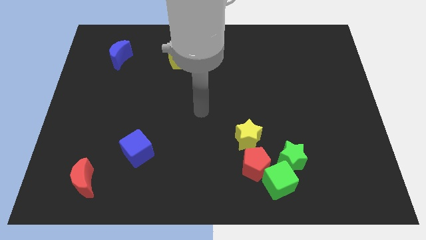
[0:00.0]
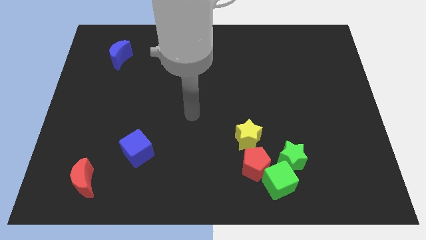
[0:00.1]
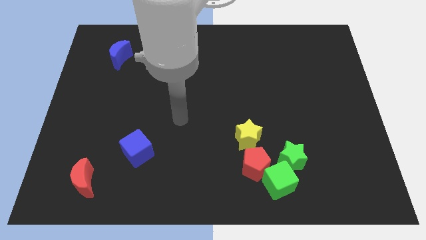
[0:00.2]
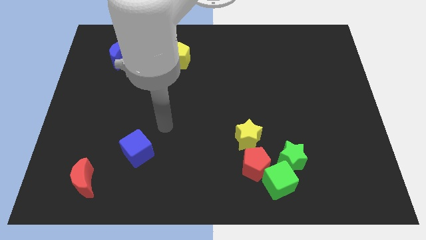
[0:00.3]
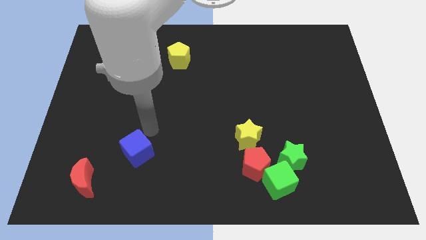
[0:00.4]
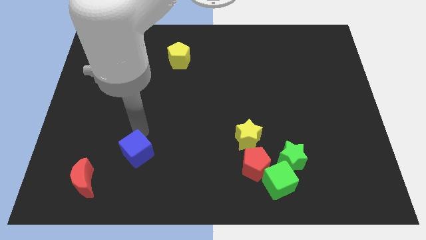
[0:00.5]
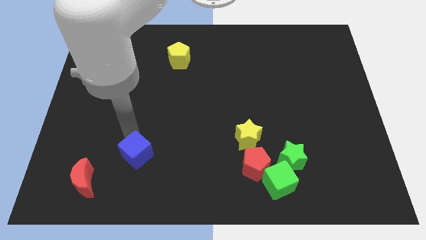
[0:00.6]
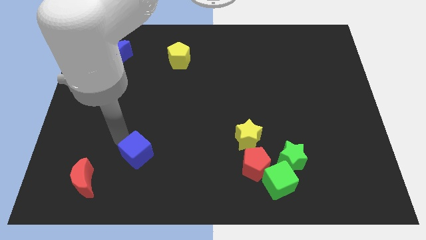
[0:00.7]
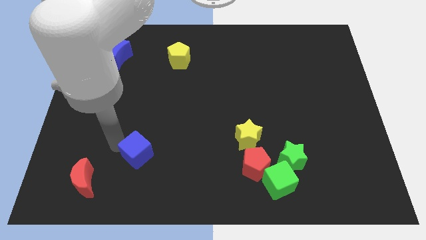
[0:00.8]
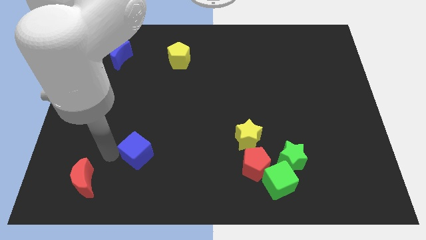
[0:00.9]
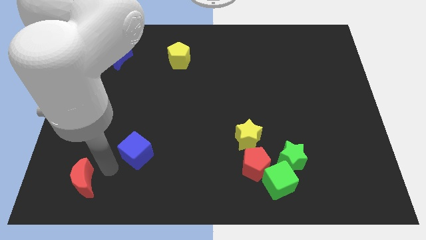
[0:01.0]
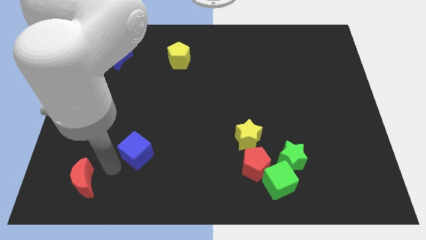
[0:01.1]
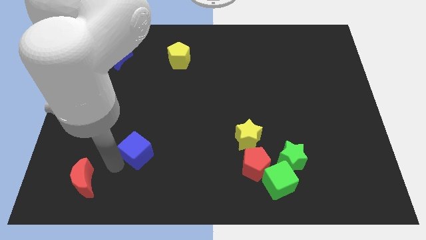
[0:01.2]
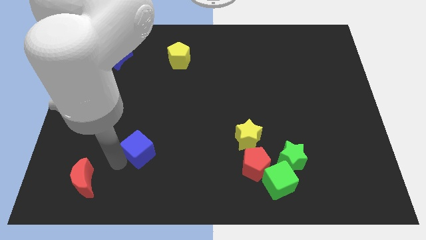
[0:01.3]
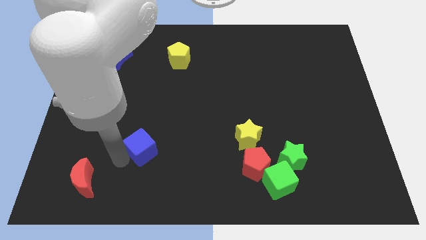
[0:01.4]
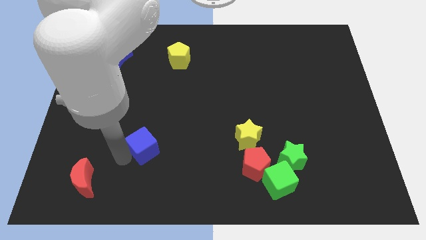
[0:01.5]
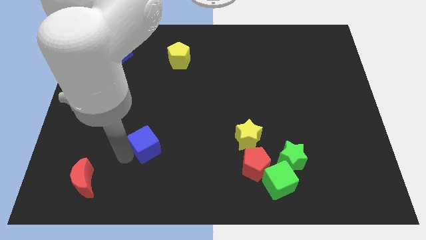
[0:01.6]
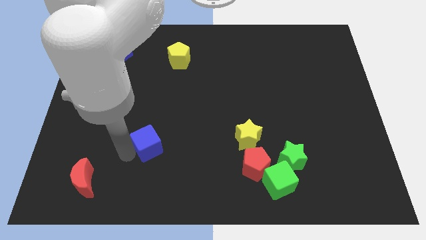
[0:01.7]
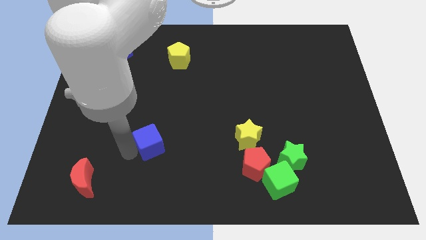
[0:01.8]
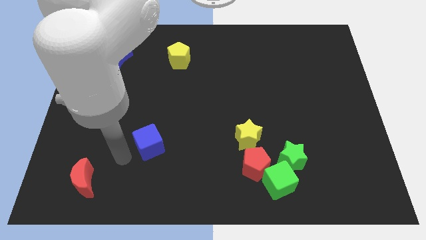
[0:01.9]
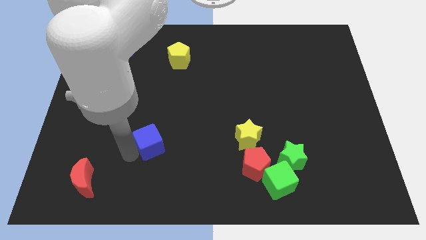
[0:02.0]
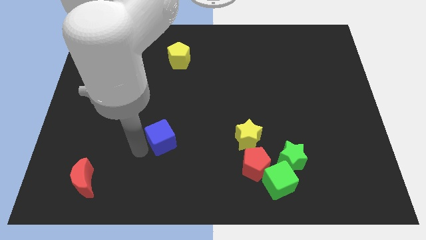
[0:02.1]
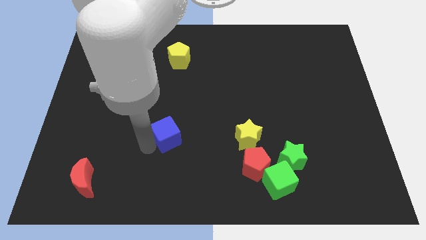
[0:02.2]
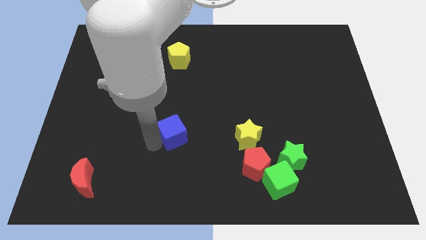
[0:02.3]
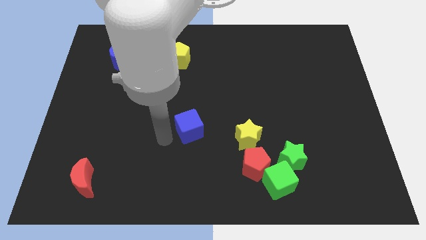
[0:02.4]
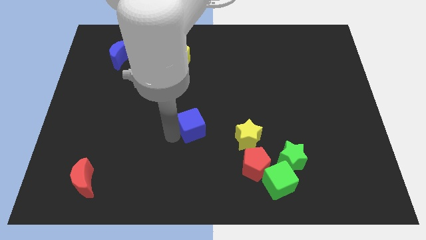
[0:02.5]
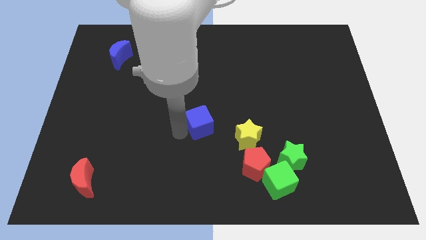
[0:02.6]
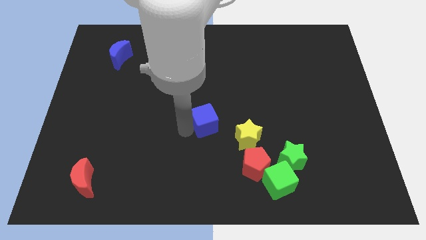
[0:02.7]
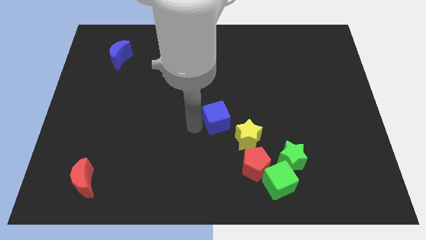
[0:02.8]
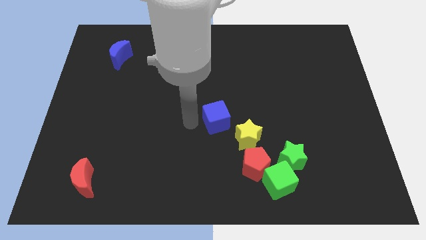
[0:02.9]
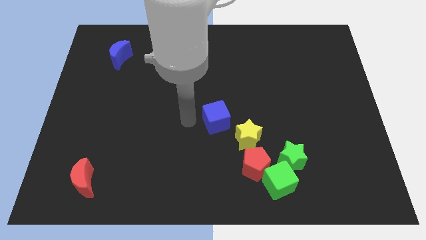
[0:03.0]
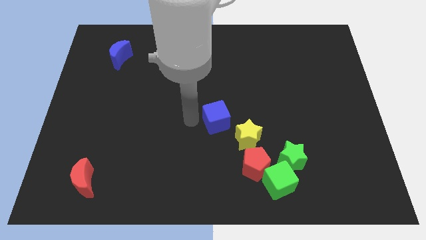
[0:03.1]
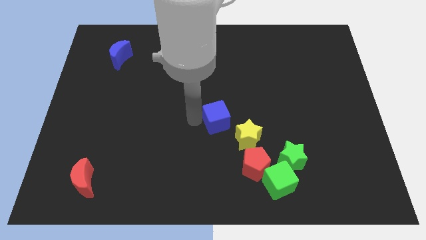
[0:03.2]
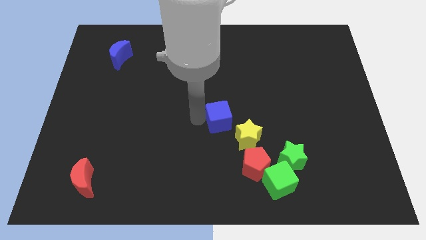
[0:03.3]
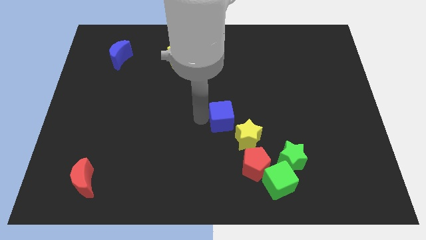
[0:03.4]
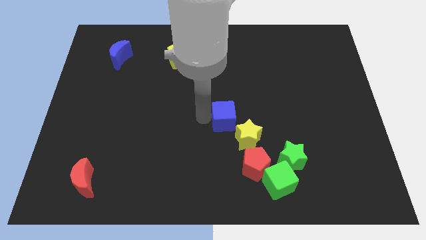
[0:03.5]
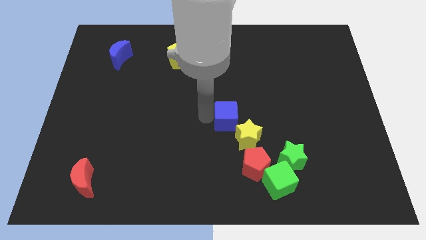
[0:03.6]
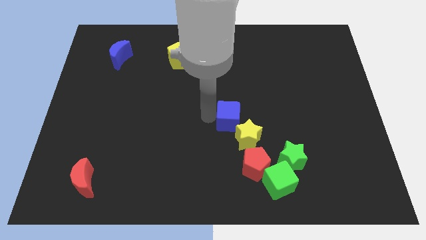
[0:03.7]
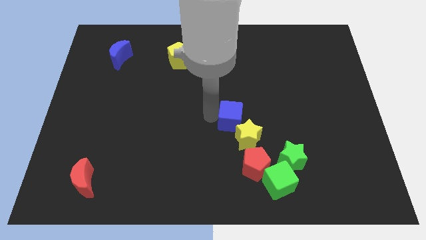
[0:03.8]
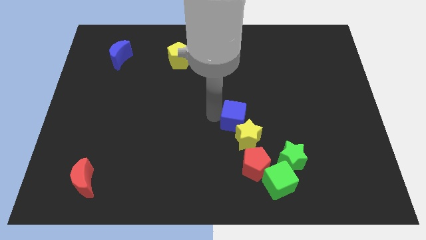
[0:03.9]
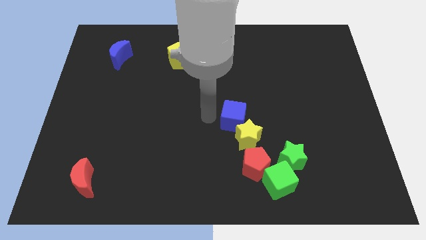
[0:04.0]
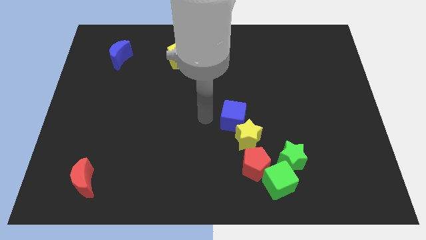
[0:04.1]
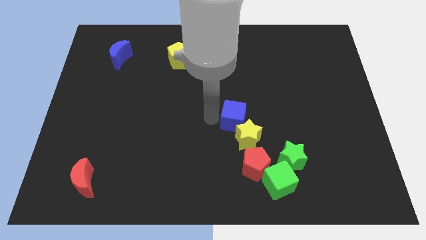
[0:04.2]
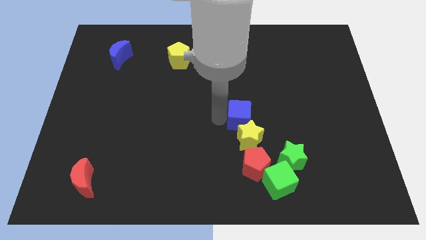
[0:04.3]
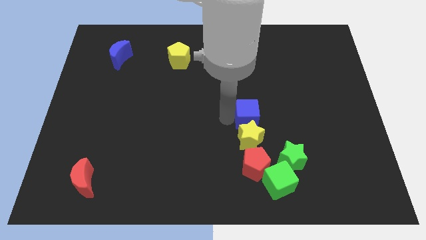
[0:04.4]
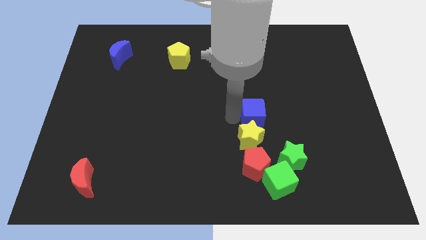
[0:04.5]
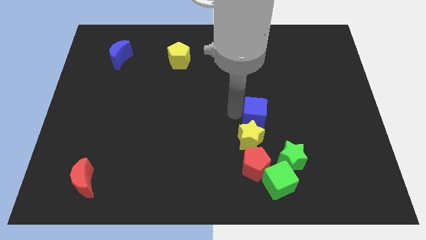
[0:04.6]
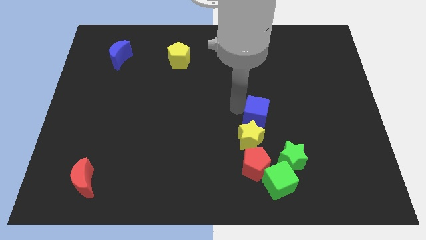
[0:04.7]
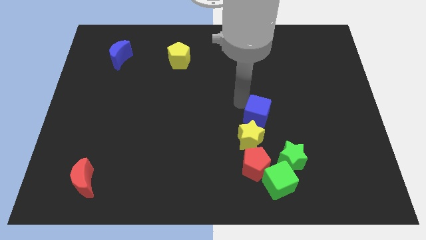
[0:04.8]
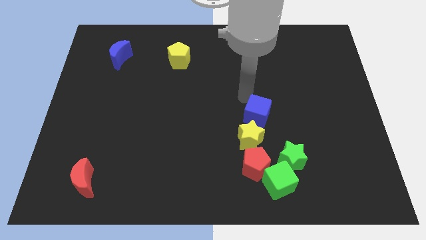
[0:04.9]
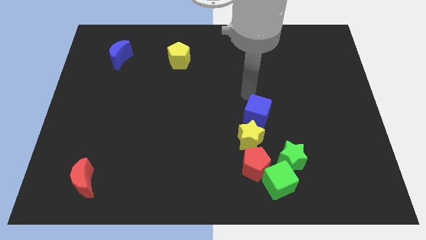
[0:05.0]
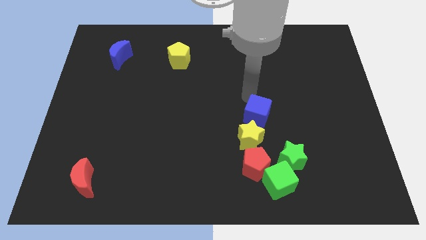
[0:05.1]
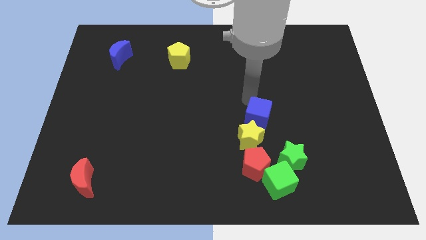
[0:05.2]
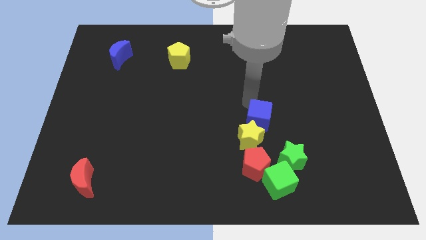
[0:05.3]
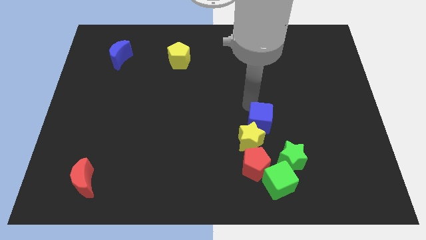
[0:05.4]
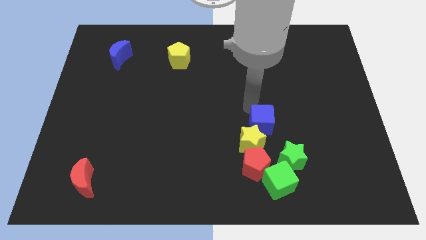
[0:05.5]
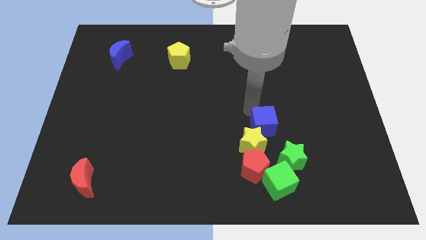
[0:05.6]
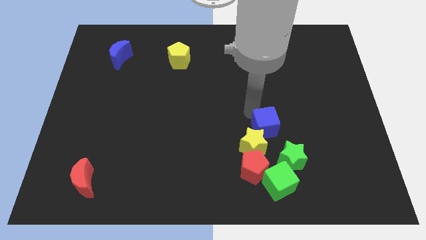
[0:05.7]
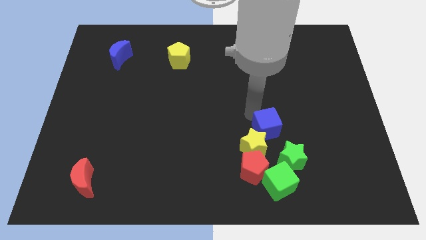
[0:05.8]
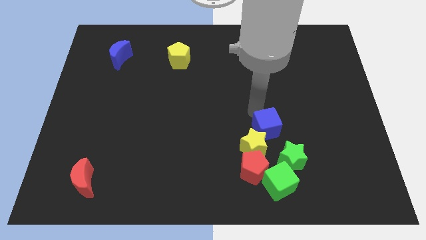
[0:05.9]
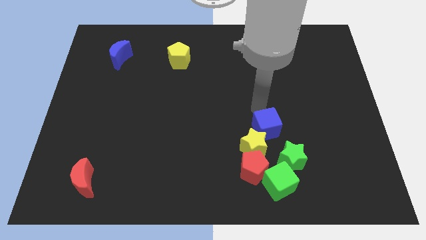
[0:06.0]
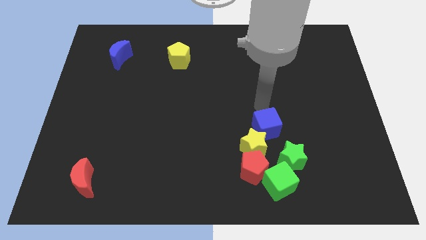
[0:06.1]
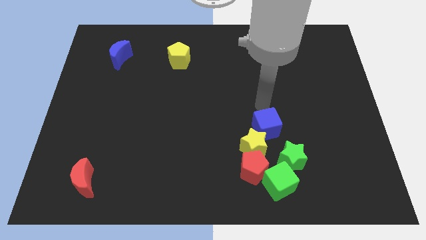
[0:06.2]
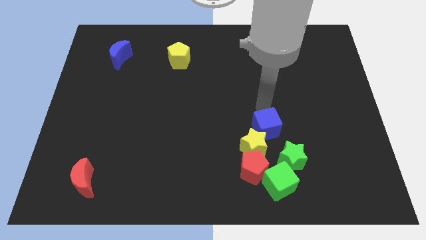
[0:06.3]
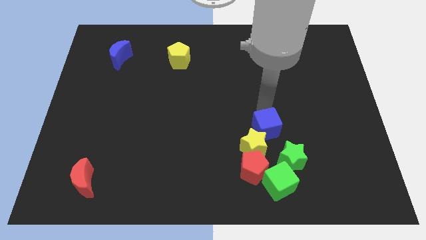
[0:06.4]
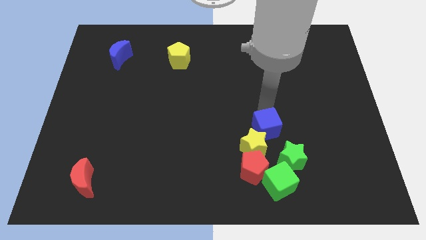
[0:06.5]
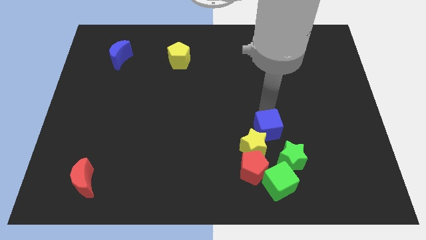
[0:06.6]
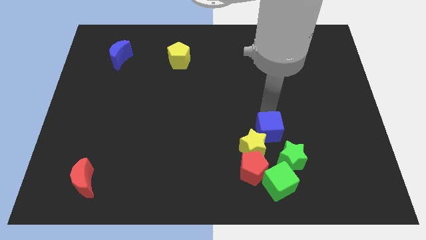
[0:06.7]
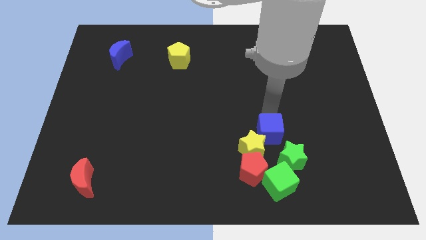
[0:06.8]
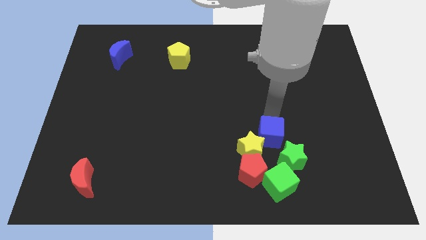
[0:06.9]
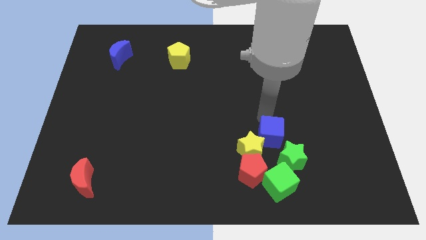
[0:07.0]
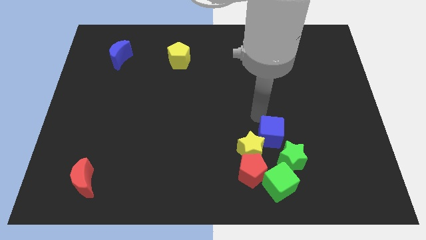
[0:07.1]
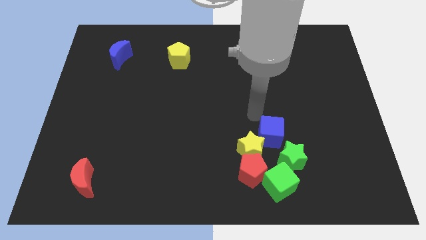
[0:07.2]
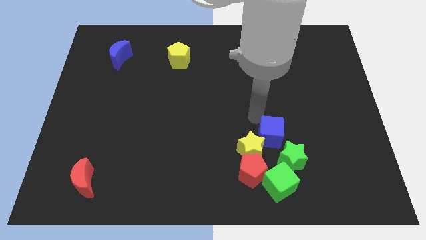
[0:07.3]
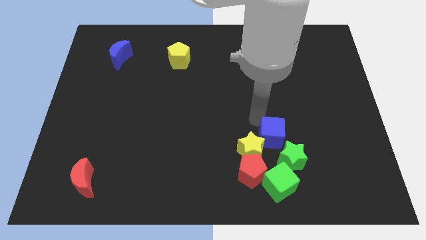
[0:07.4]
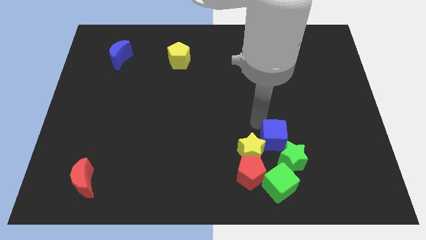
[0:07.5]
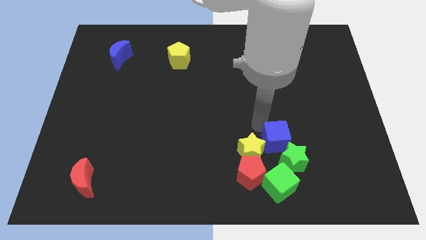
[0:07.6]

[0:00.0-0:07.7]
slide the blue cube close to the green star
